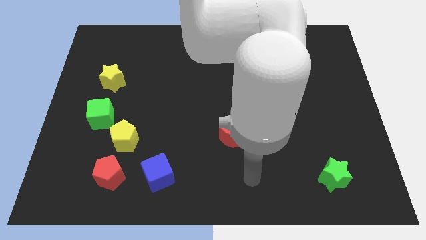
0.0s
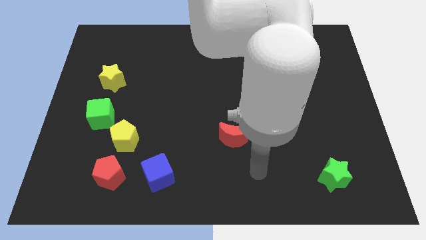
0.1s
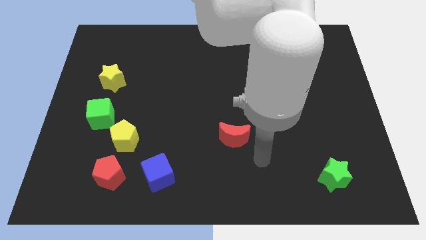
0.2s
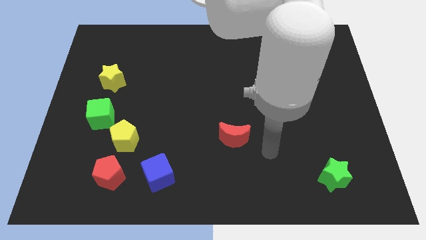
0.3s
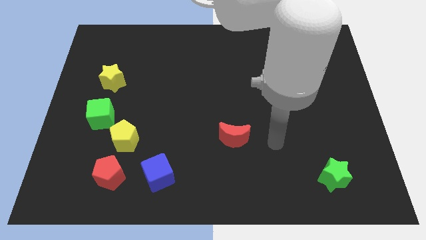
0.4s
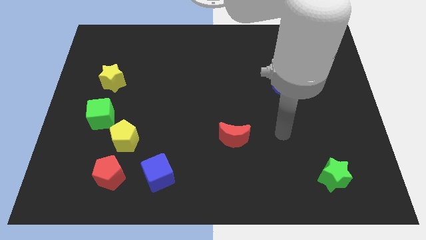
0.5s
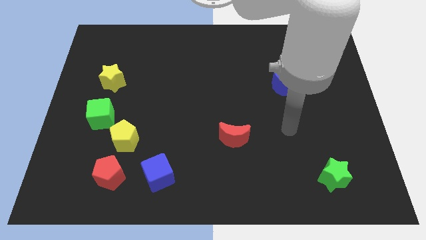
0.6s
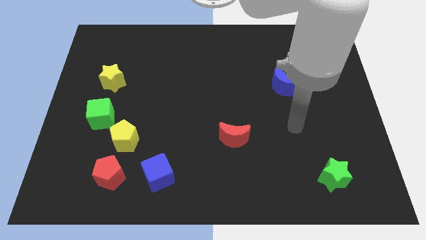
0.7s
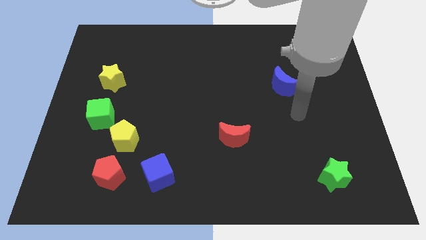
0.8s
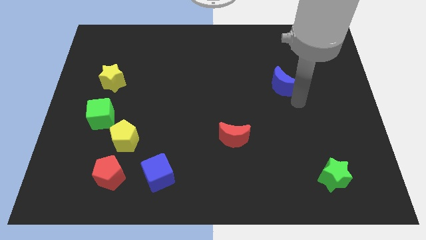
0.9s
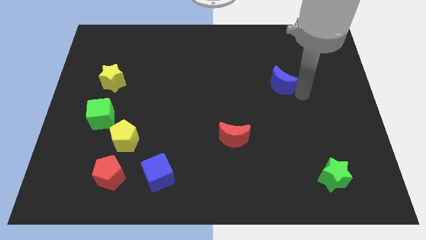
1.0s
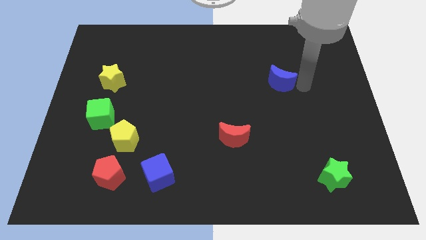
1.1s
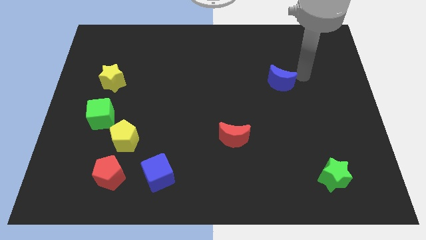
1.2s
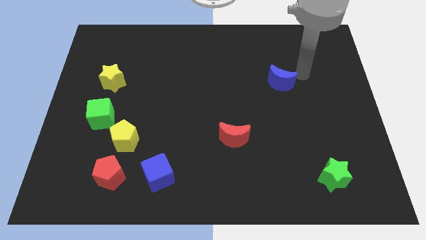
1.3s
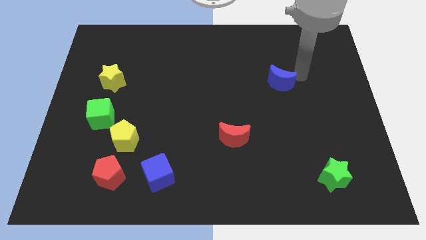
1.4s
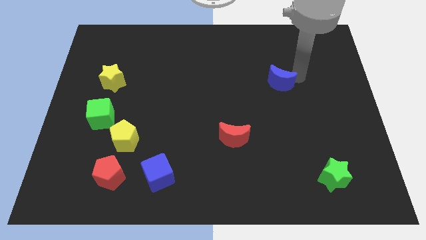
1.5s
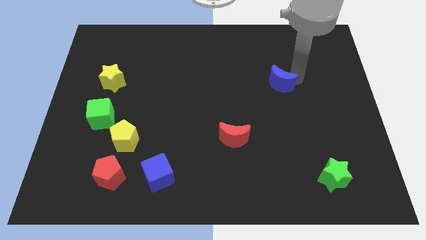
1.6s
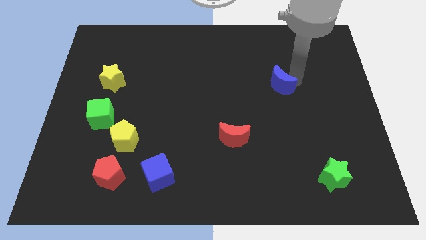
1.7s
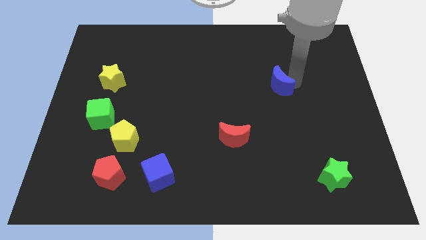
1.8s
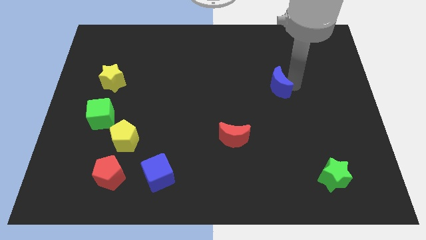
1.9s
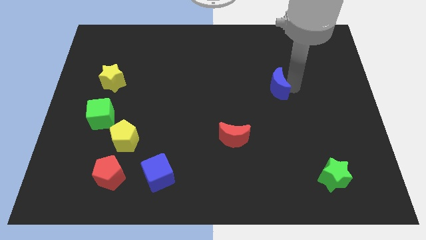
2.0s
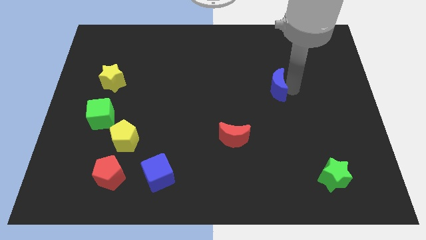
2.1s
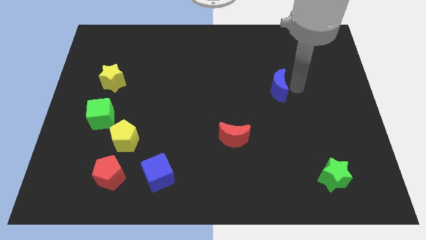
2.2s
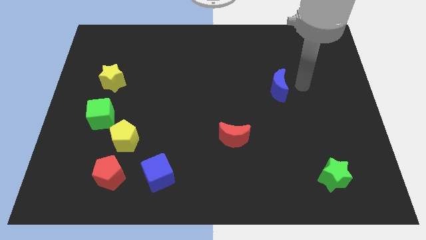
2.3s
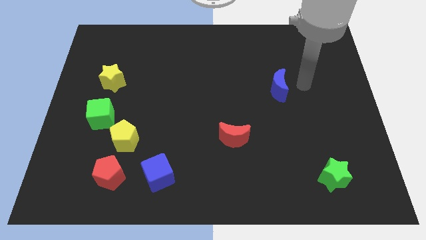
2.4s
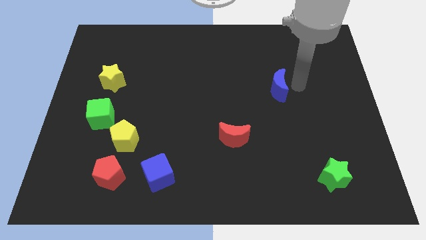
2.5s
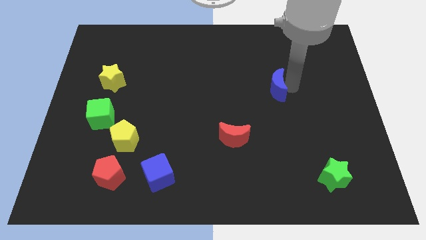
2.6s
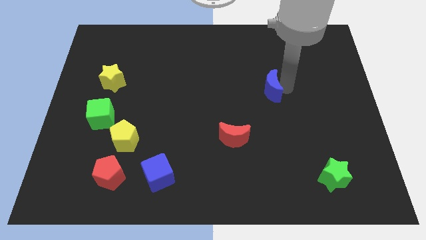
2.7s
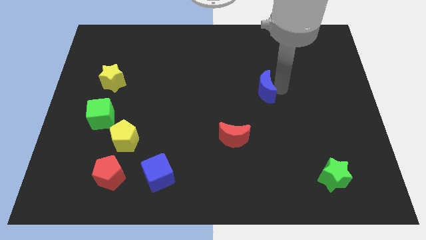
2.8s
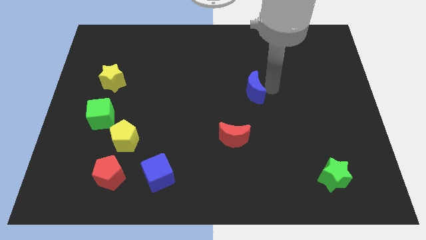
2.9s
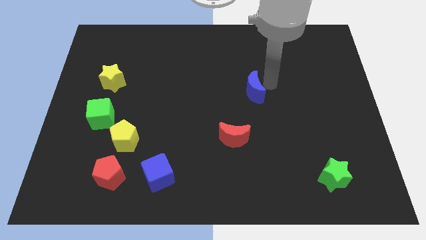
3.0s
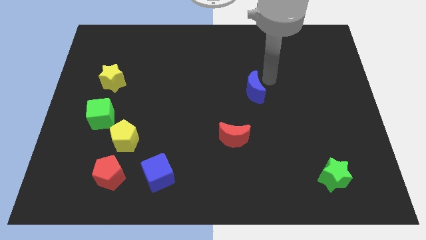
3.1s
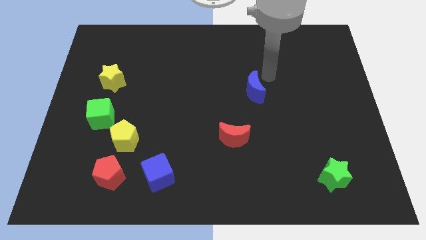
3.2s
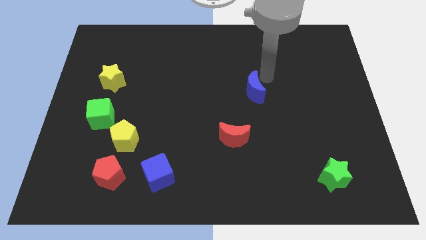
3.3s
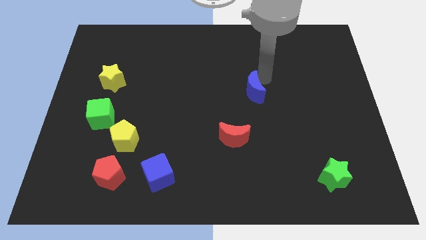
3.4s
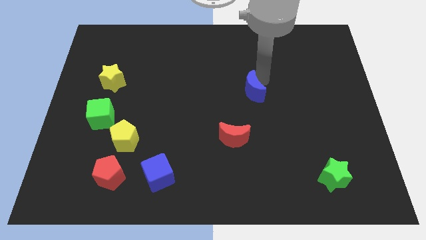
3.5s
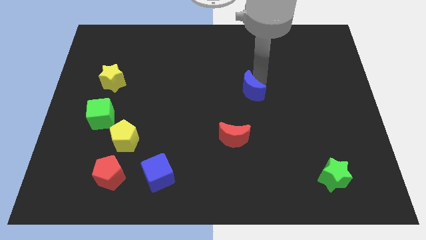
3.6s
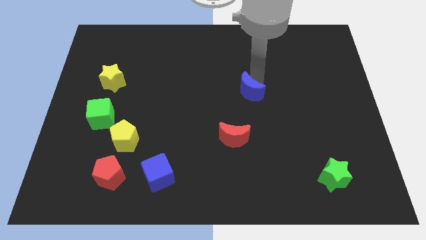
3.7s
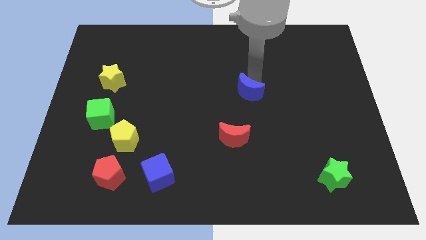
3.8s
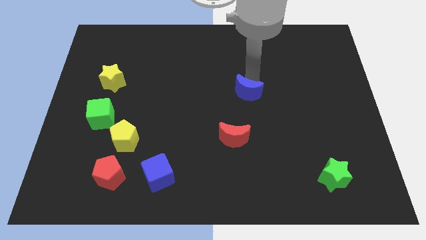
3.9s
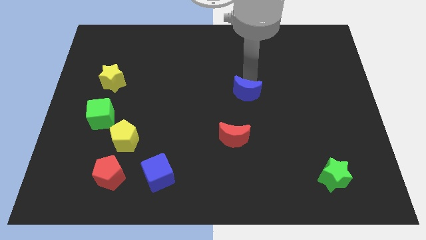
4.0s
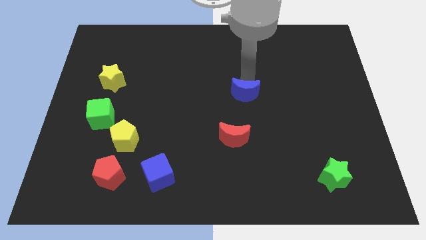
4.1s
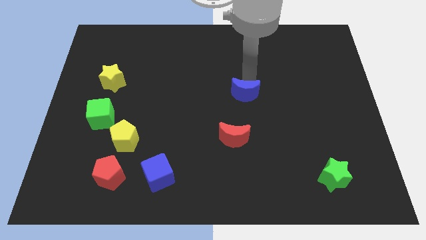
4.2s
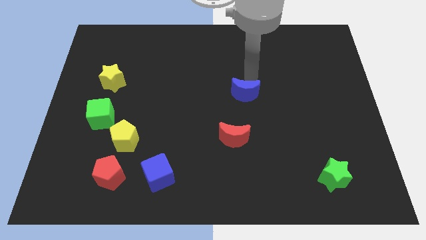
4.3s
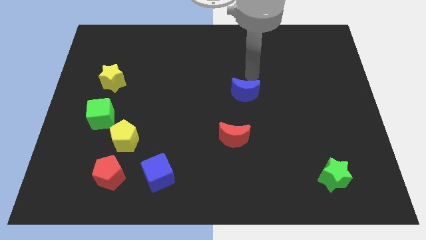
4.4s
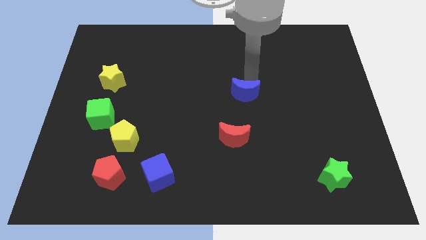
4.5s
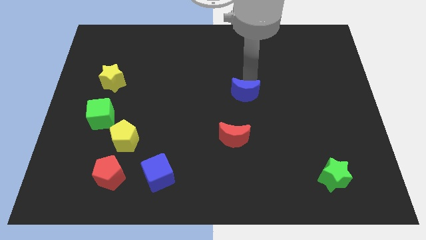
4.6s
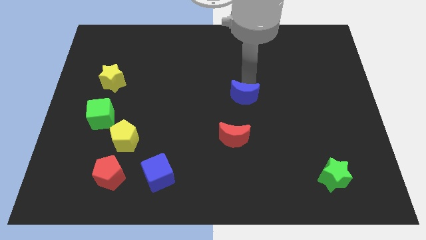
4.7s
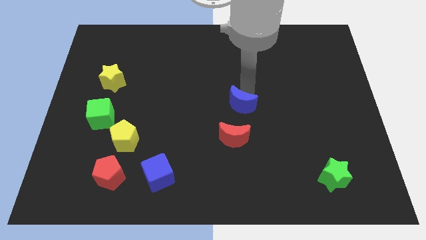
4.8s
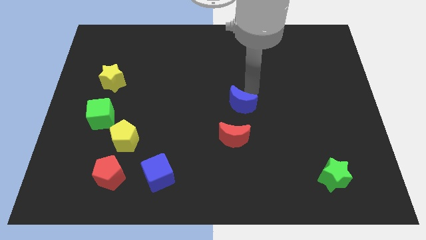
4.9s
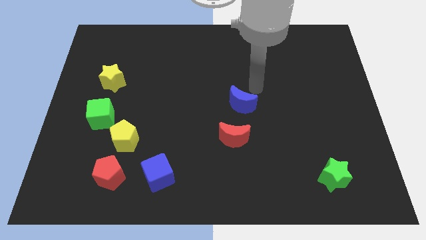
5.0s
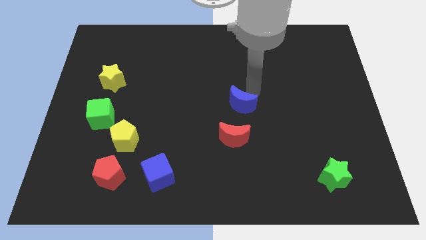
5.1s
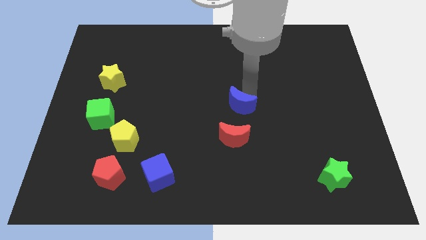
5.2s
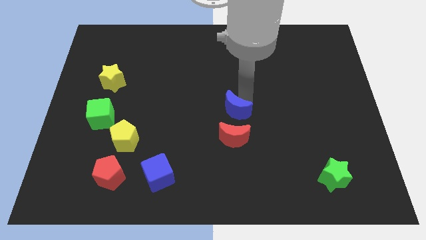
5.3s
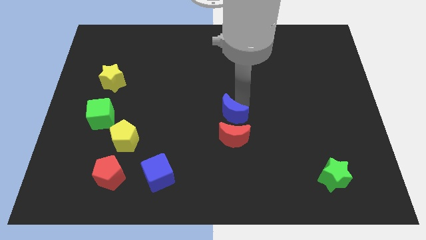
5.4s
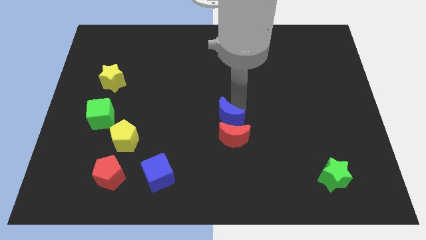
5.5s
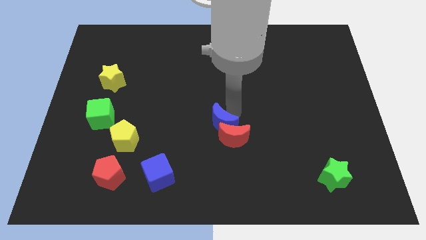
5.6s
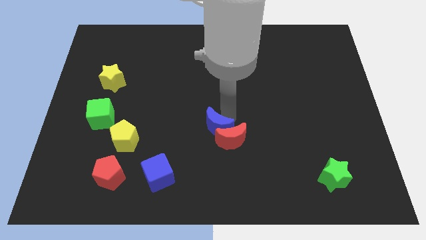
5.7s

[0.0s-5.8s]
push the blue moon downwards and to the left diagonally

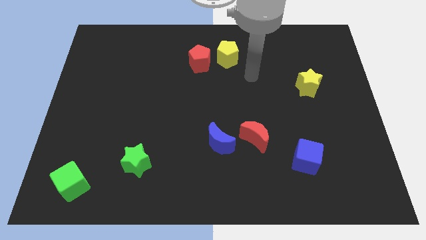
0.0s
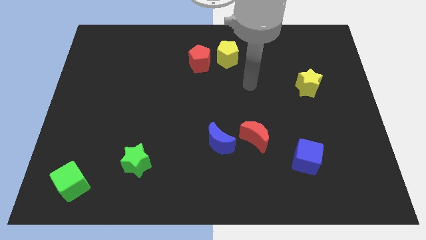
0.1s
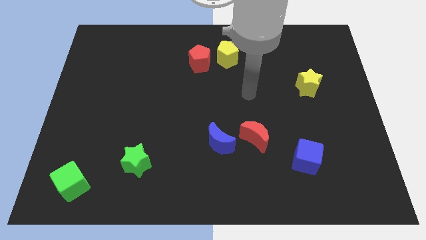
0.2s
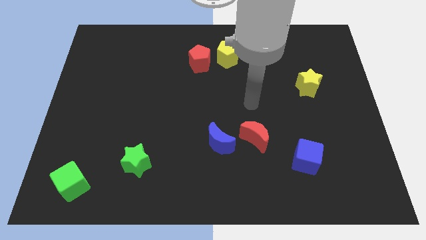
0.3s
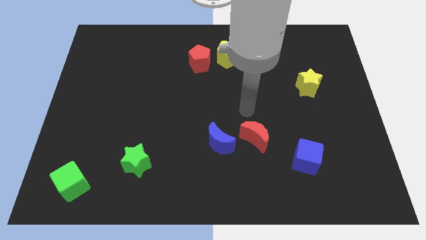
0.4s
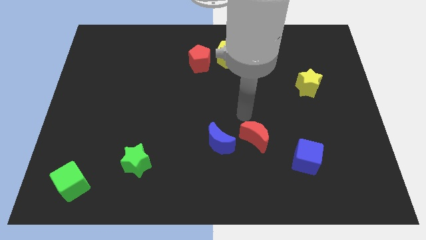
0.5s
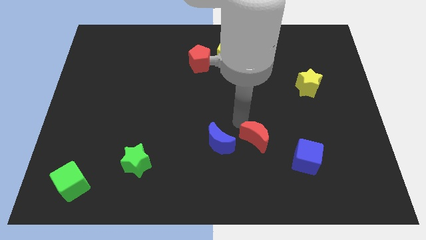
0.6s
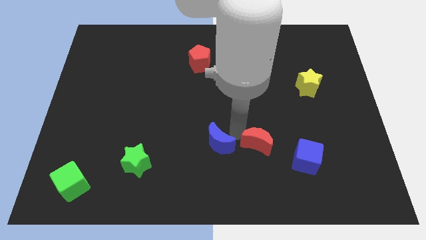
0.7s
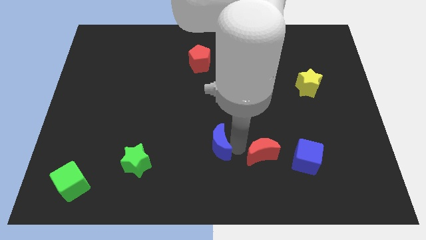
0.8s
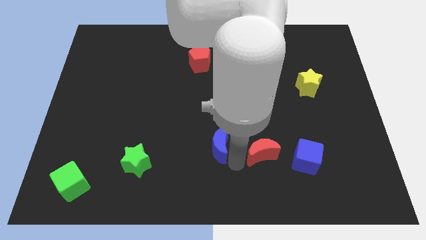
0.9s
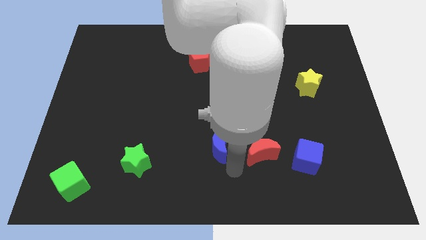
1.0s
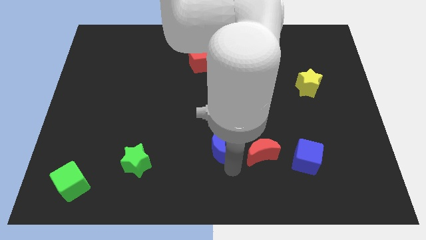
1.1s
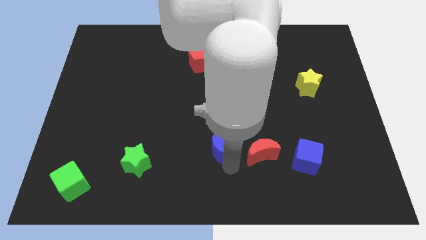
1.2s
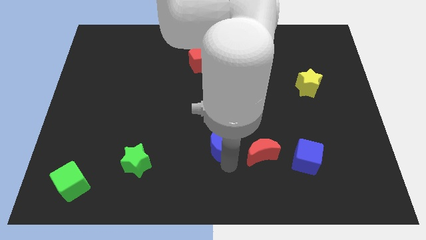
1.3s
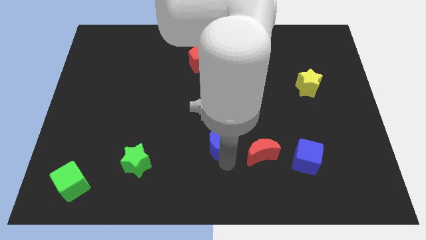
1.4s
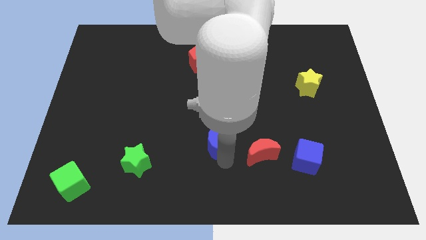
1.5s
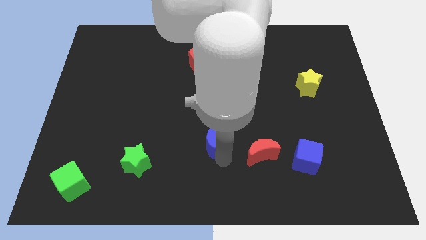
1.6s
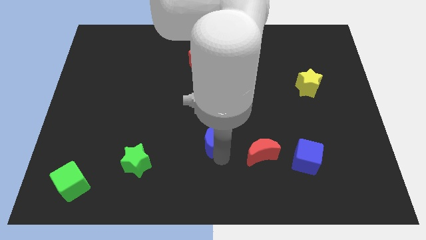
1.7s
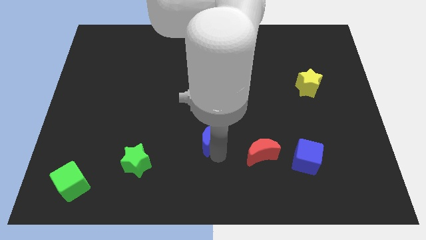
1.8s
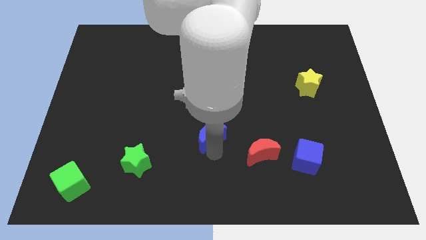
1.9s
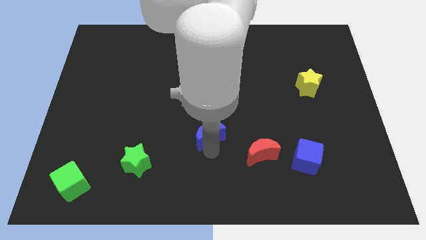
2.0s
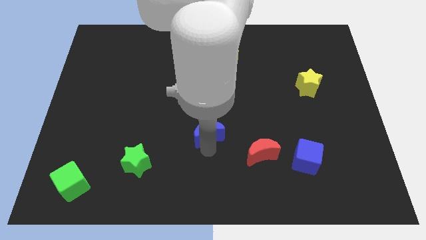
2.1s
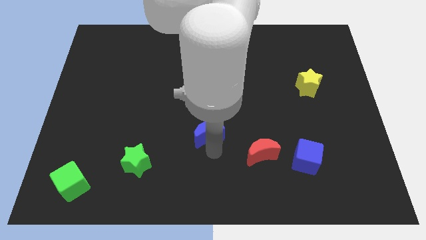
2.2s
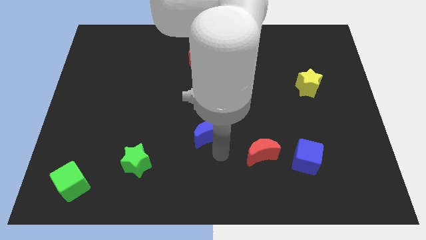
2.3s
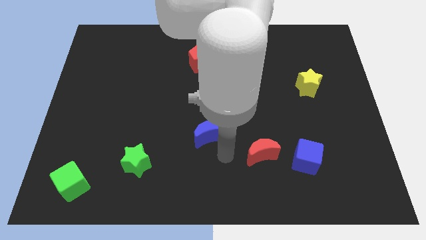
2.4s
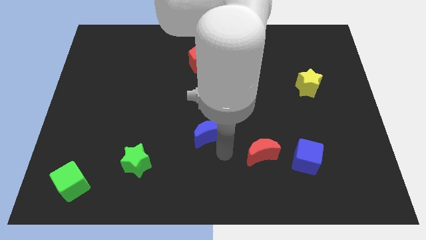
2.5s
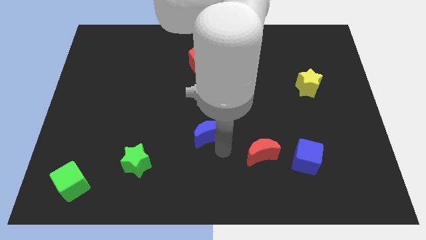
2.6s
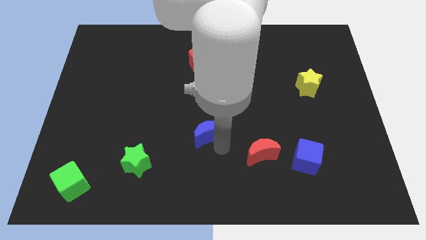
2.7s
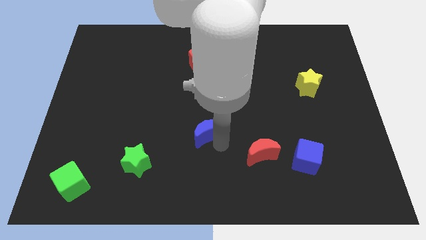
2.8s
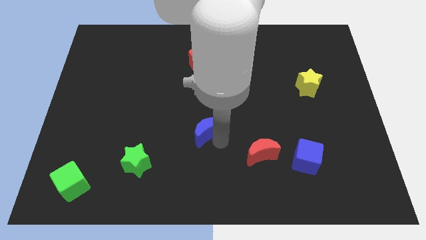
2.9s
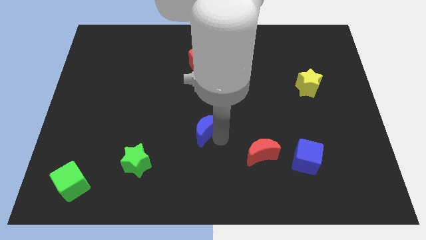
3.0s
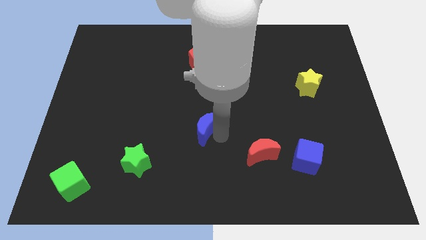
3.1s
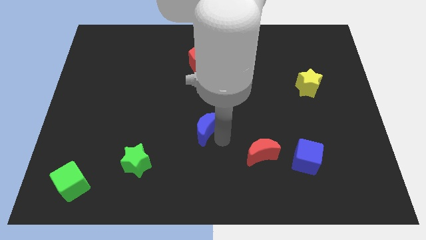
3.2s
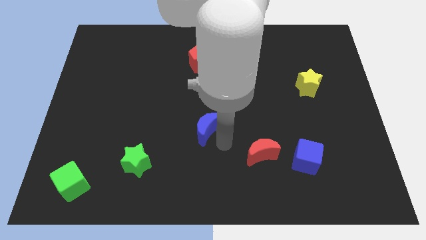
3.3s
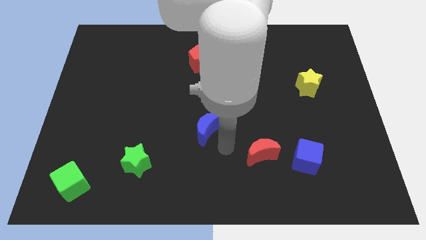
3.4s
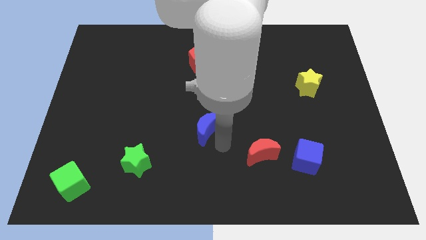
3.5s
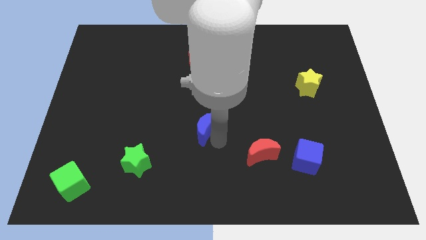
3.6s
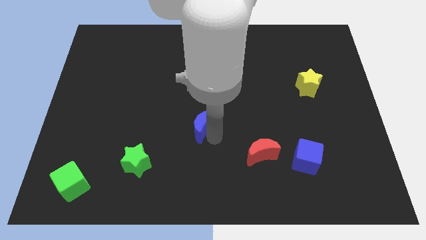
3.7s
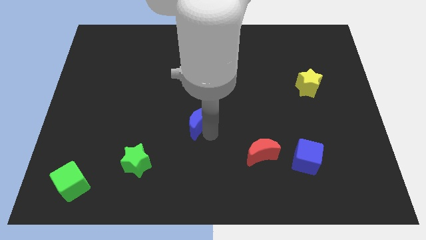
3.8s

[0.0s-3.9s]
push the blue moon a little bit upwards and then left
